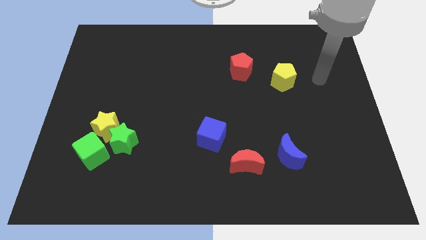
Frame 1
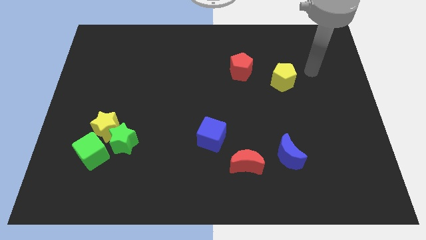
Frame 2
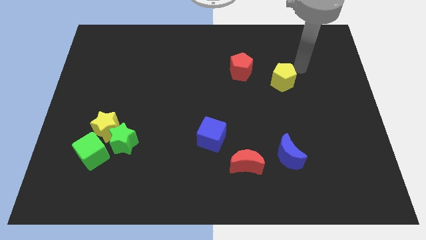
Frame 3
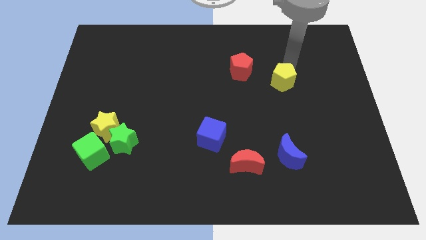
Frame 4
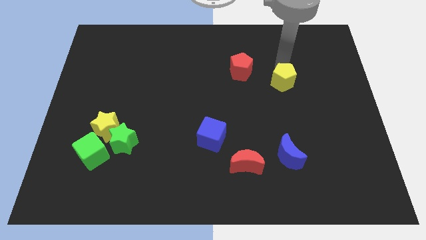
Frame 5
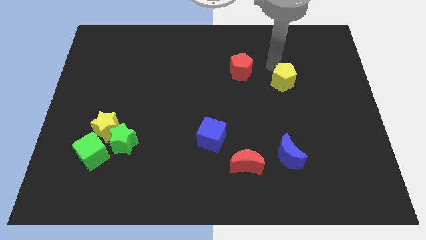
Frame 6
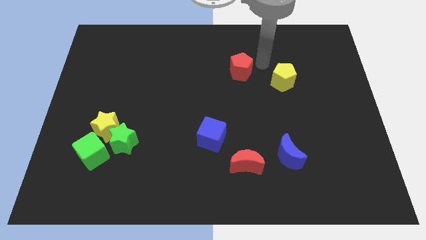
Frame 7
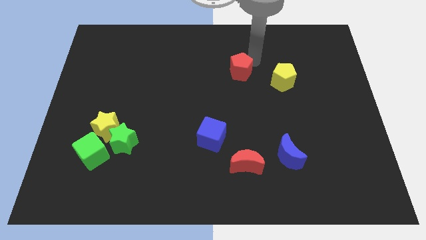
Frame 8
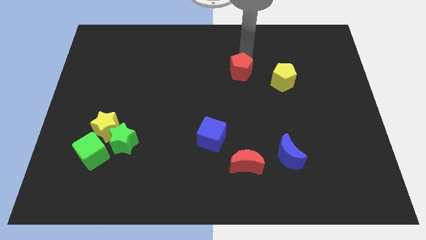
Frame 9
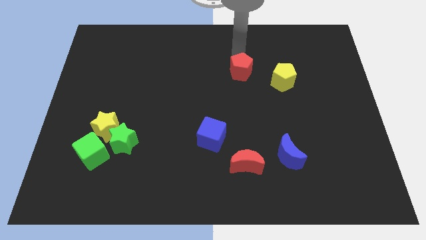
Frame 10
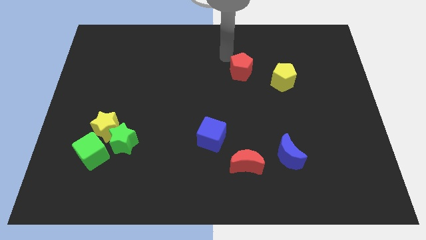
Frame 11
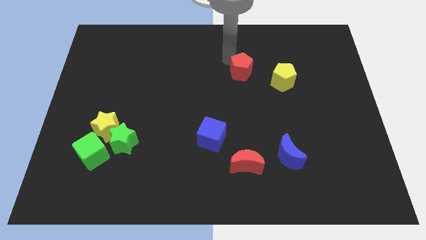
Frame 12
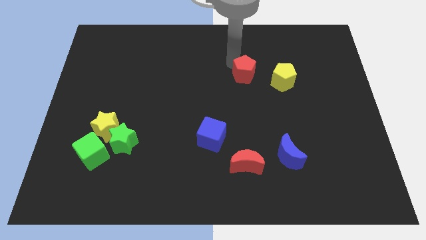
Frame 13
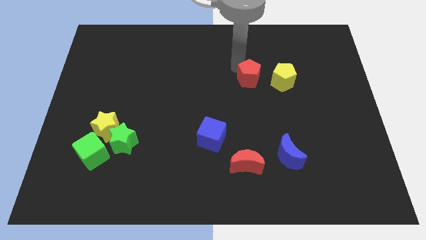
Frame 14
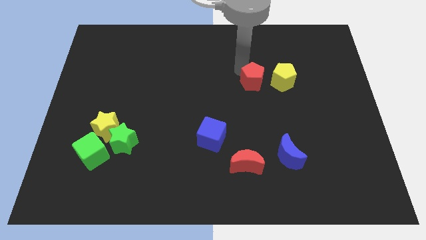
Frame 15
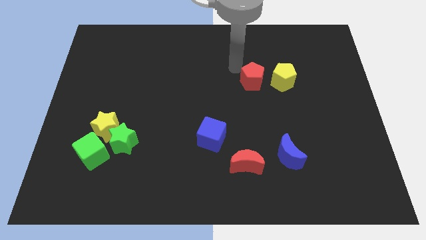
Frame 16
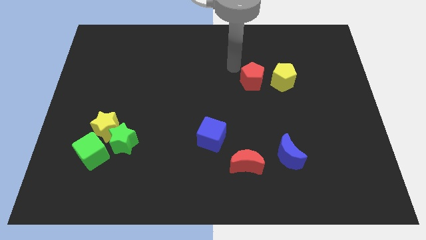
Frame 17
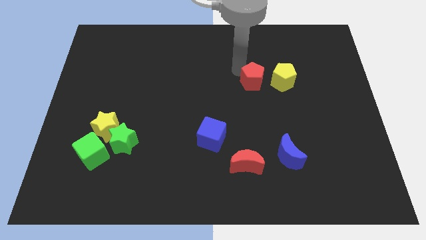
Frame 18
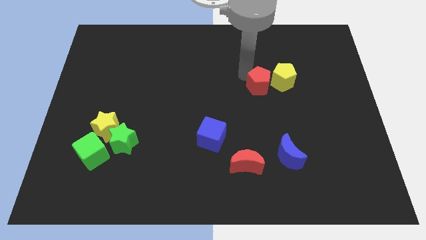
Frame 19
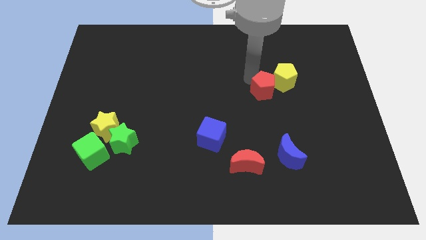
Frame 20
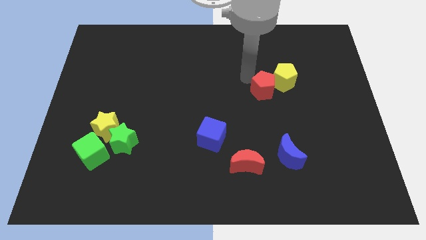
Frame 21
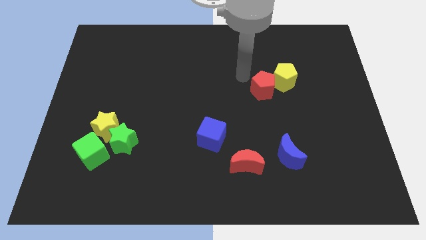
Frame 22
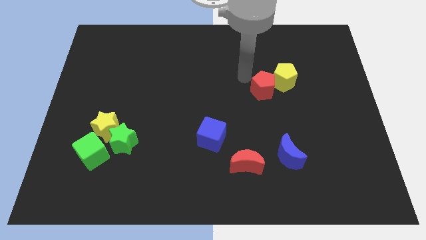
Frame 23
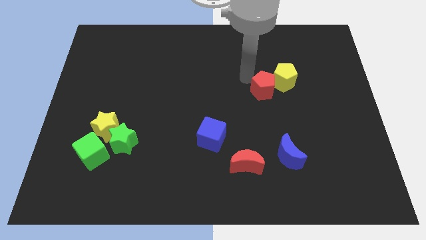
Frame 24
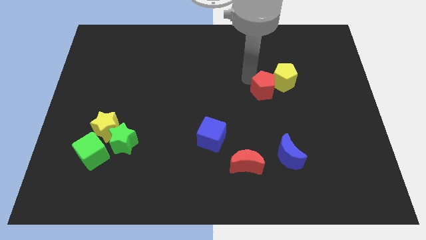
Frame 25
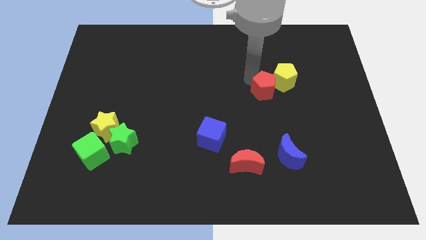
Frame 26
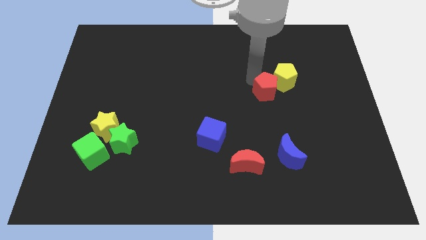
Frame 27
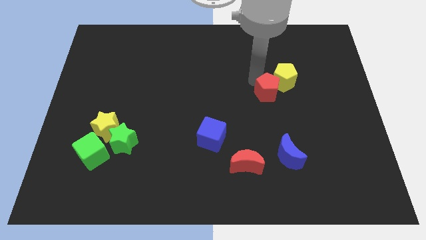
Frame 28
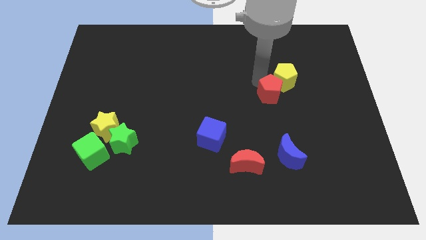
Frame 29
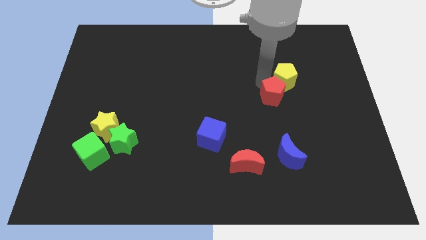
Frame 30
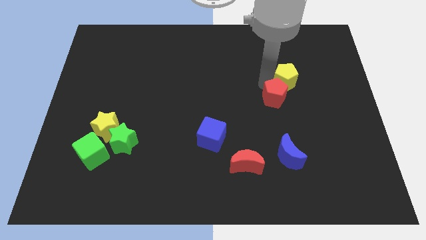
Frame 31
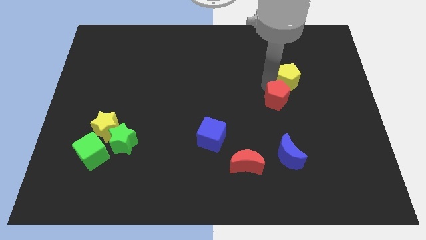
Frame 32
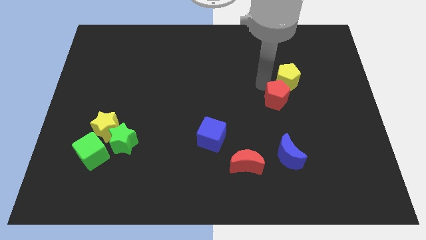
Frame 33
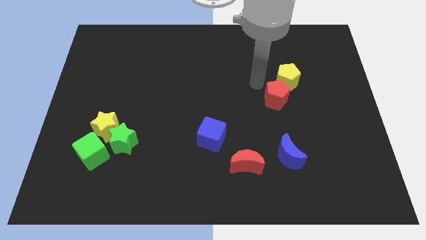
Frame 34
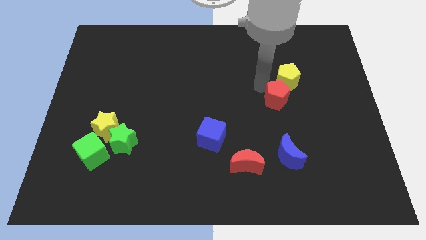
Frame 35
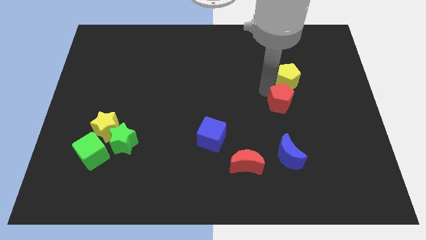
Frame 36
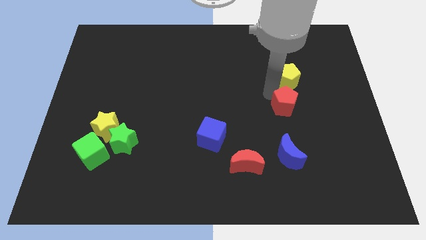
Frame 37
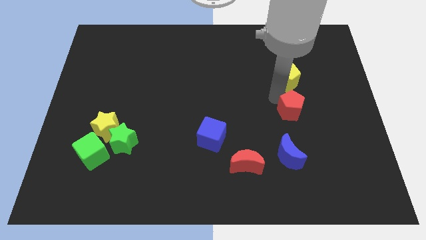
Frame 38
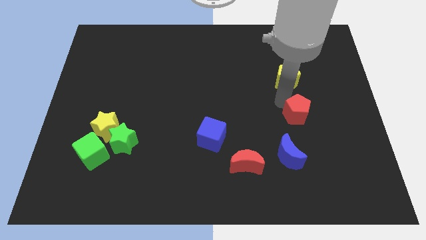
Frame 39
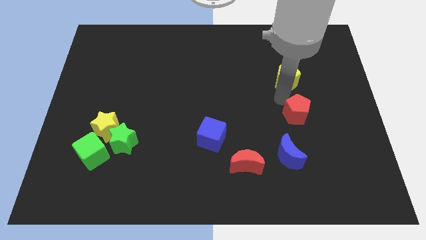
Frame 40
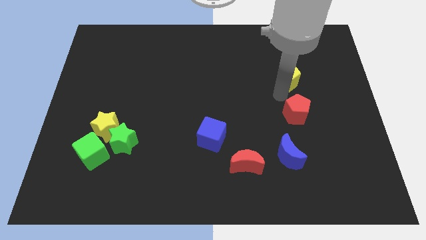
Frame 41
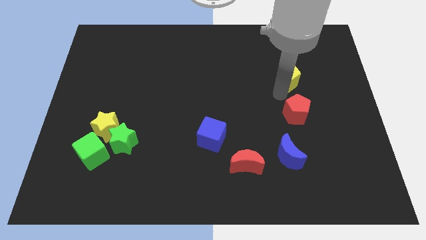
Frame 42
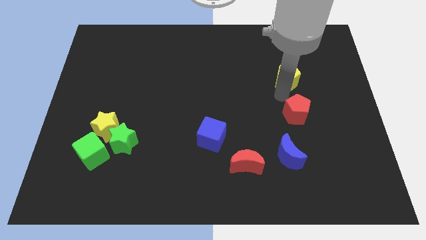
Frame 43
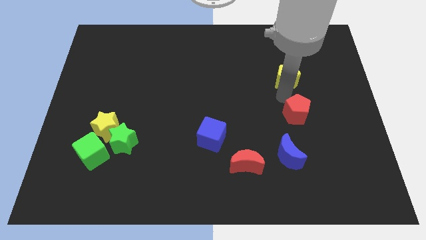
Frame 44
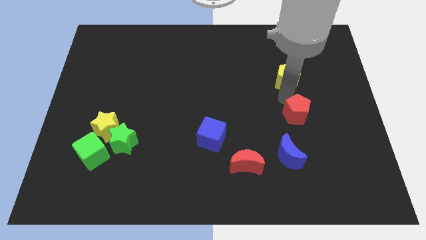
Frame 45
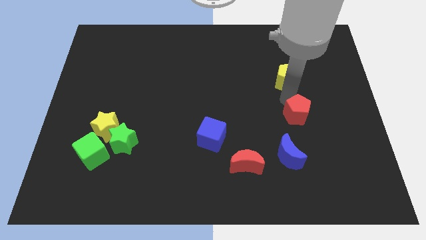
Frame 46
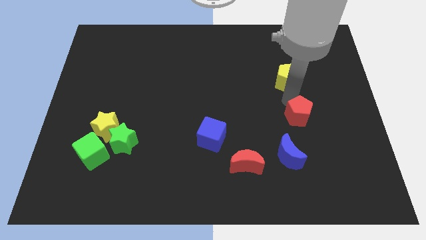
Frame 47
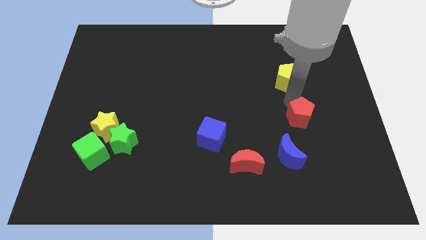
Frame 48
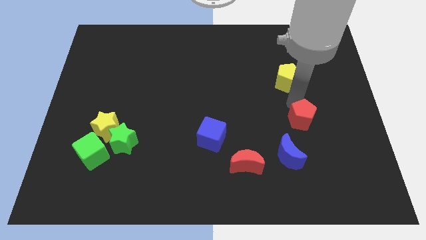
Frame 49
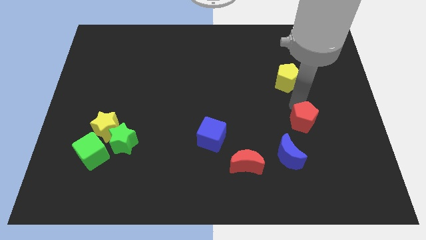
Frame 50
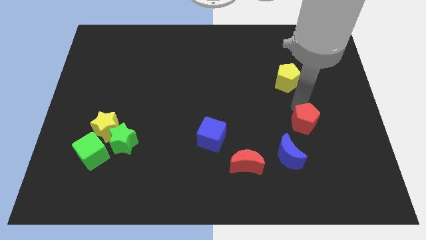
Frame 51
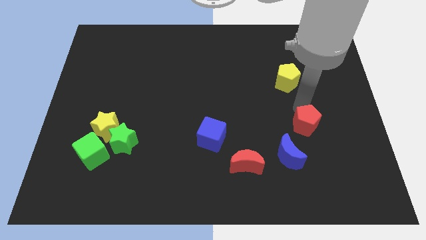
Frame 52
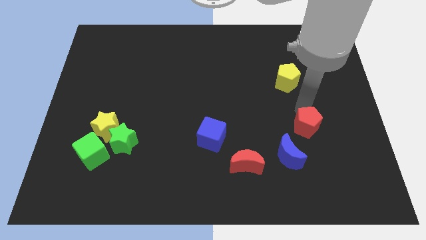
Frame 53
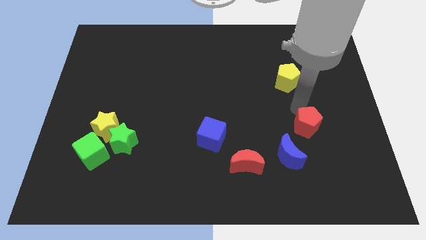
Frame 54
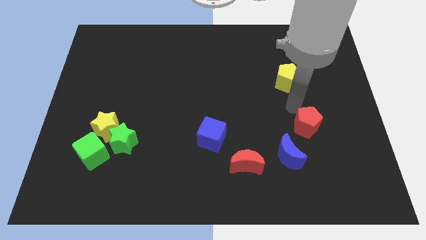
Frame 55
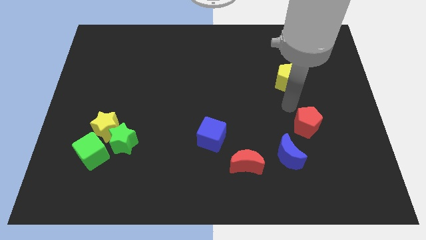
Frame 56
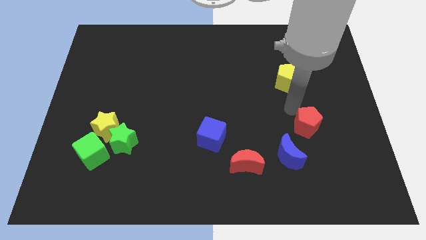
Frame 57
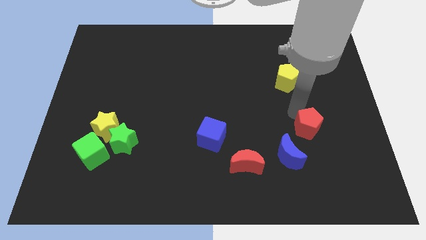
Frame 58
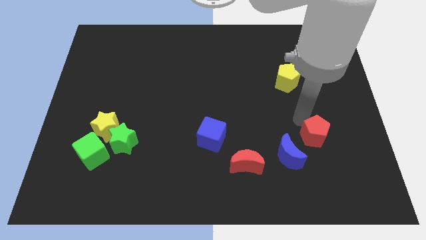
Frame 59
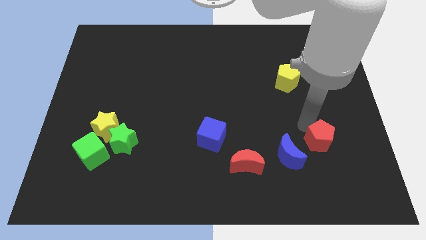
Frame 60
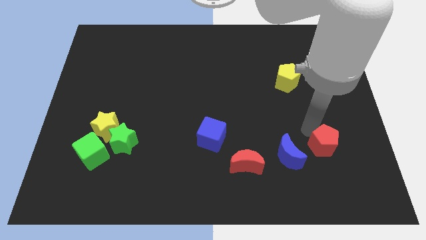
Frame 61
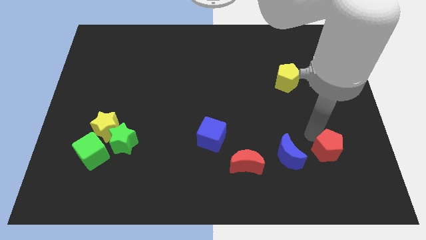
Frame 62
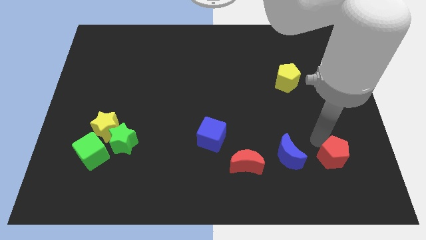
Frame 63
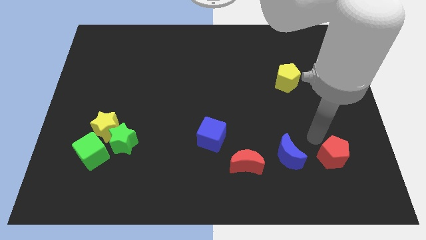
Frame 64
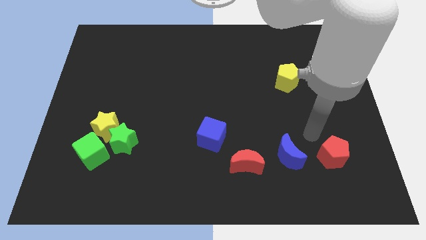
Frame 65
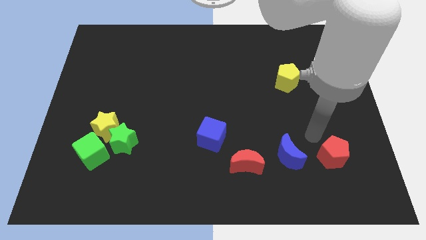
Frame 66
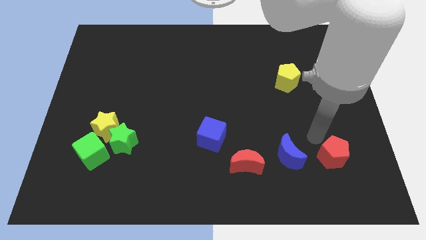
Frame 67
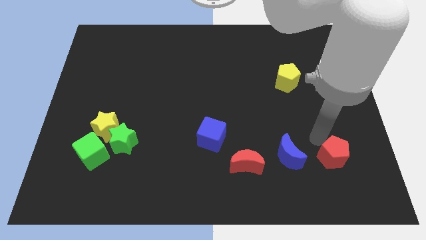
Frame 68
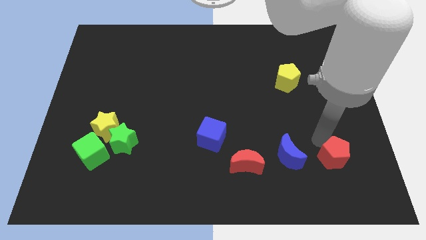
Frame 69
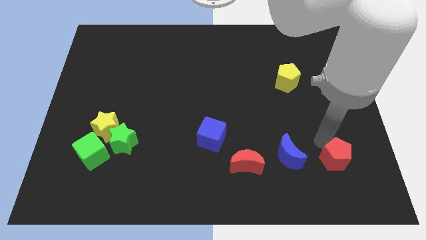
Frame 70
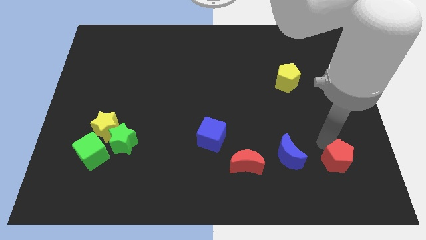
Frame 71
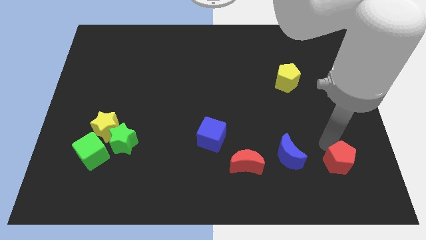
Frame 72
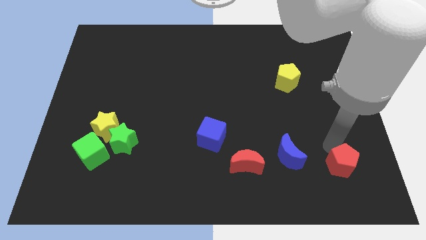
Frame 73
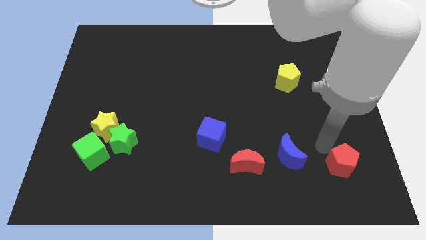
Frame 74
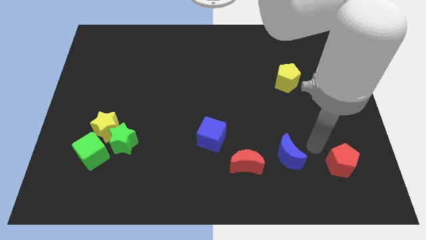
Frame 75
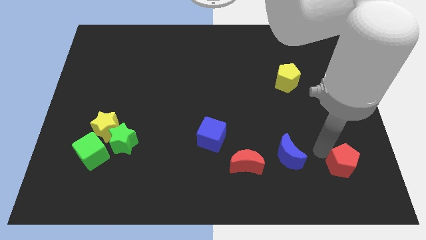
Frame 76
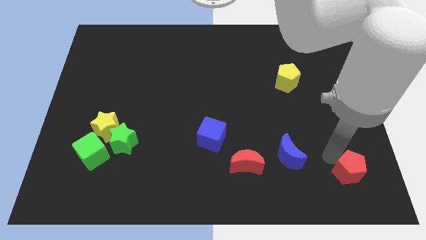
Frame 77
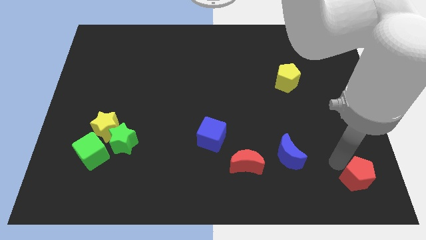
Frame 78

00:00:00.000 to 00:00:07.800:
move the red pentagon to the bottom right of the board

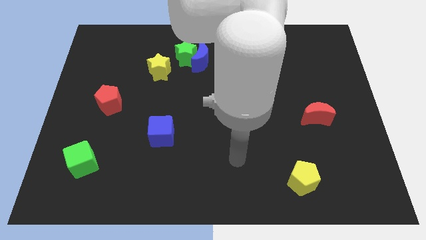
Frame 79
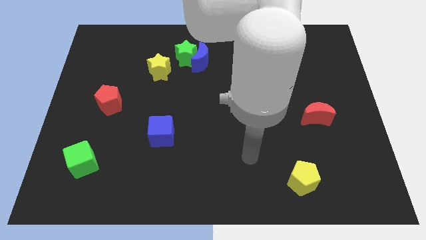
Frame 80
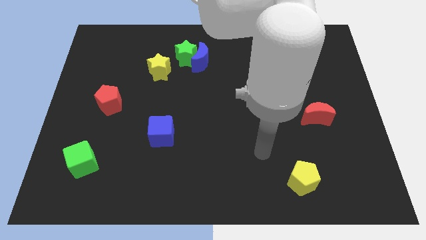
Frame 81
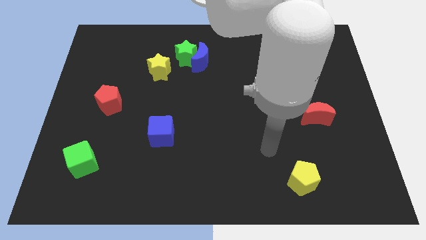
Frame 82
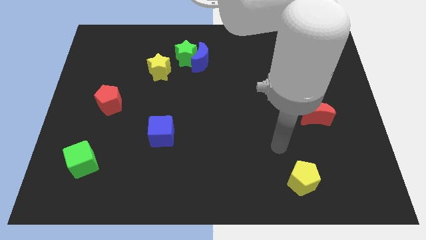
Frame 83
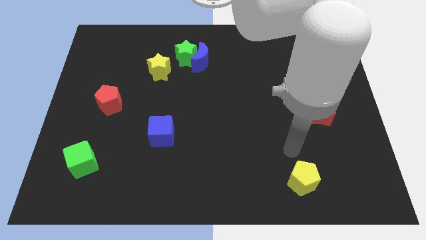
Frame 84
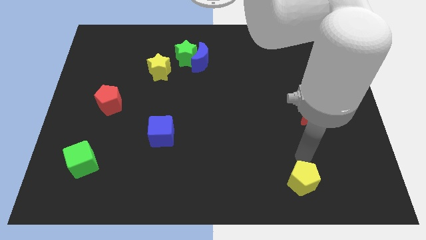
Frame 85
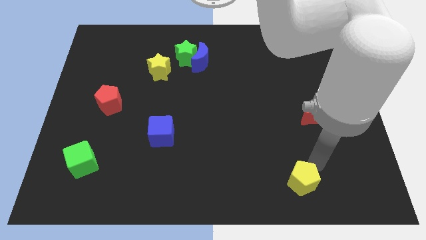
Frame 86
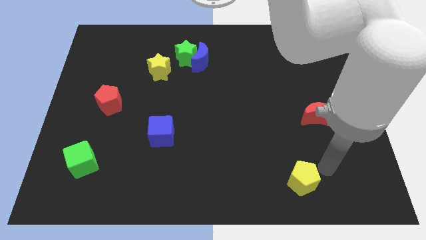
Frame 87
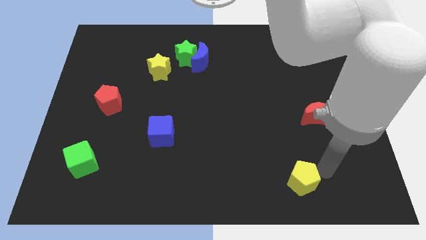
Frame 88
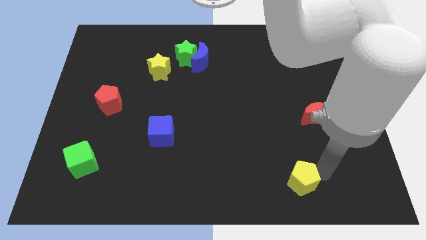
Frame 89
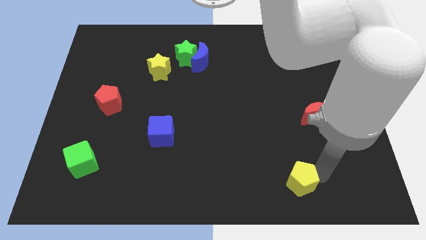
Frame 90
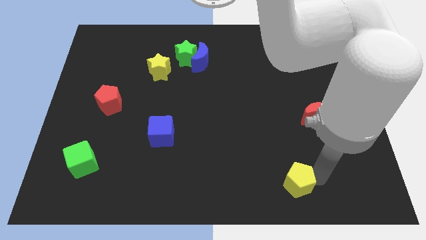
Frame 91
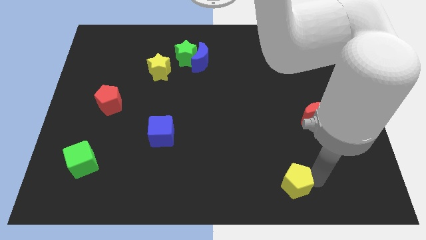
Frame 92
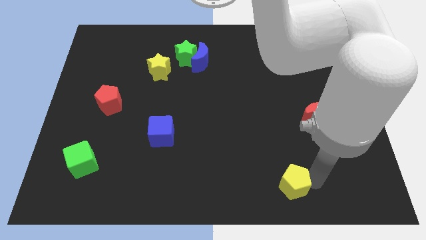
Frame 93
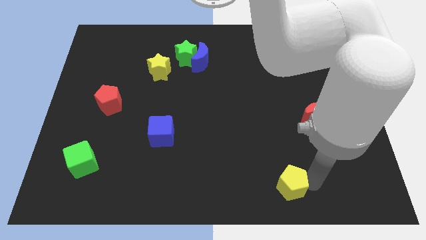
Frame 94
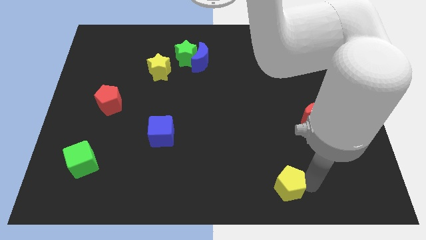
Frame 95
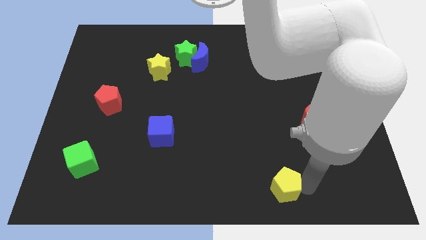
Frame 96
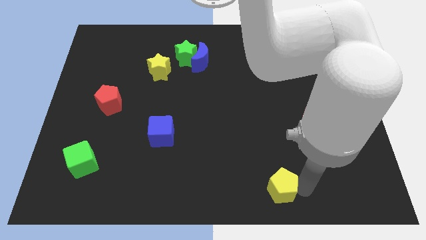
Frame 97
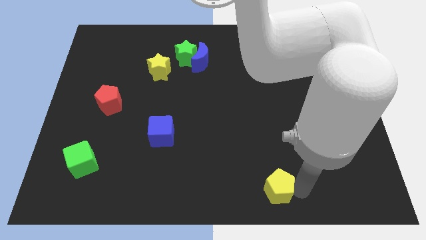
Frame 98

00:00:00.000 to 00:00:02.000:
push the yellow pentagon to the bottom side
